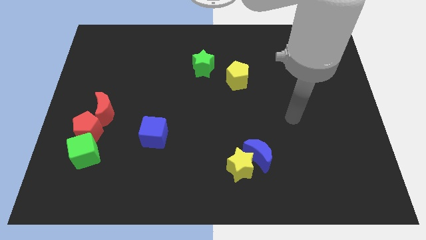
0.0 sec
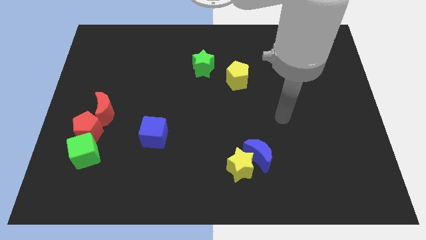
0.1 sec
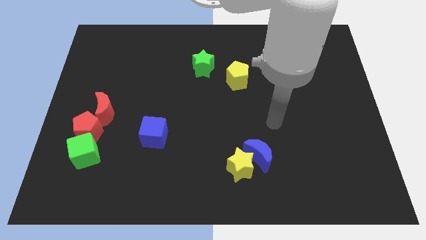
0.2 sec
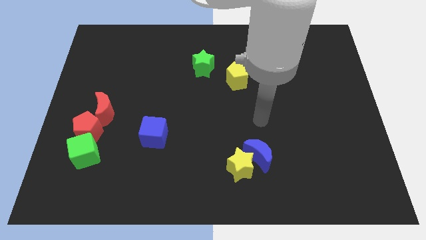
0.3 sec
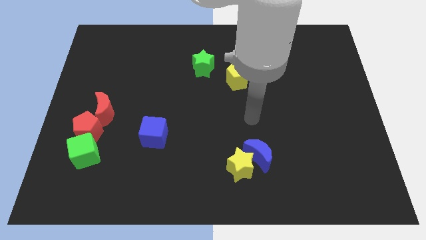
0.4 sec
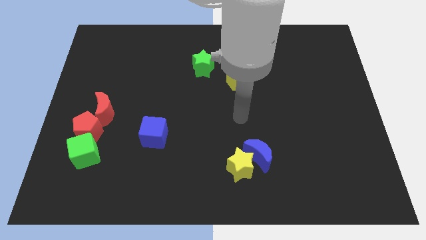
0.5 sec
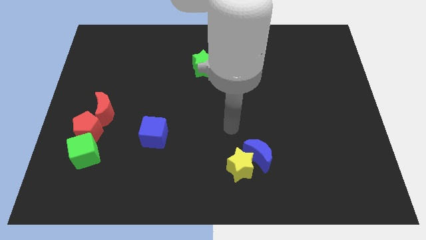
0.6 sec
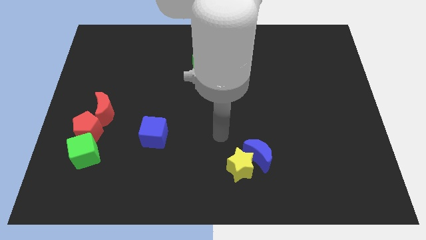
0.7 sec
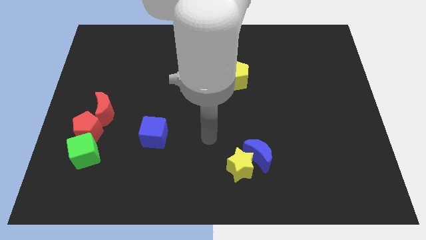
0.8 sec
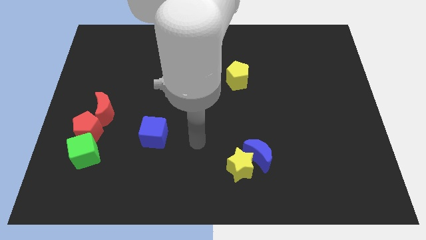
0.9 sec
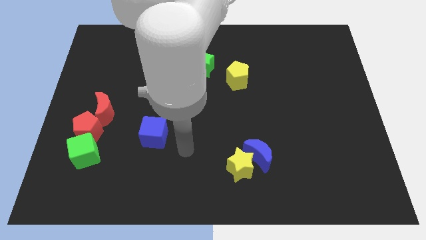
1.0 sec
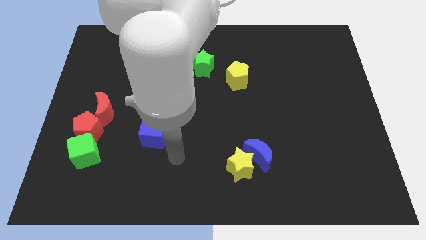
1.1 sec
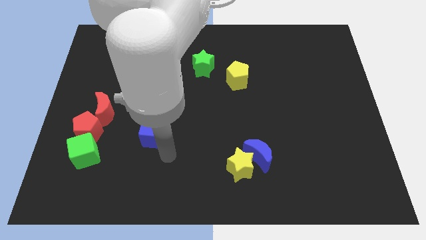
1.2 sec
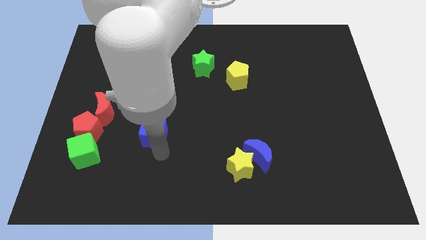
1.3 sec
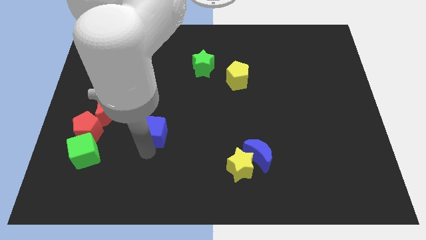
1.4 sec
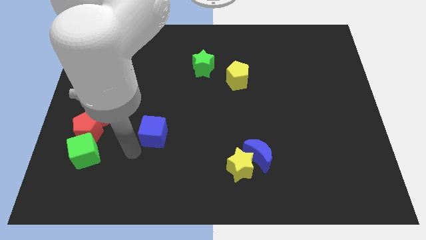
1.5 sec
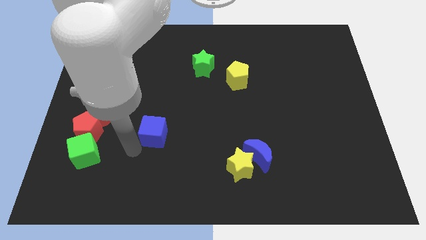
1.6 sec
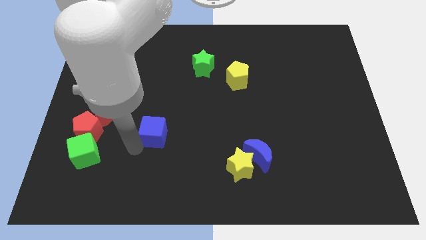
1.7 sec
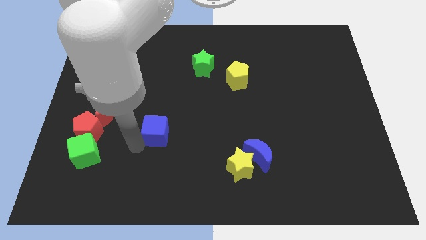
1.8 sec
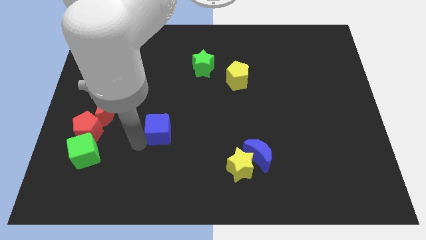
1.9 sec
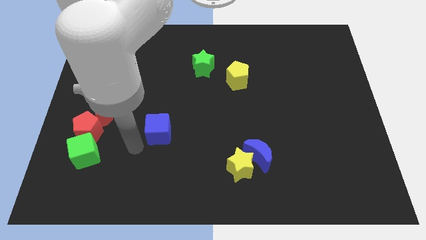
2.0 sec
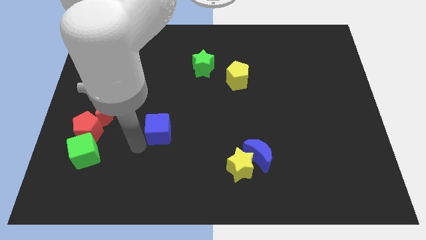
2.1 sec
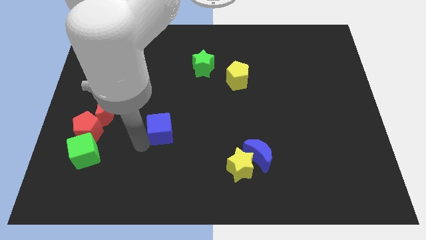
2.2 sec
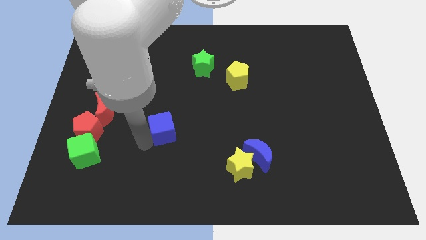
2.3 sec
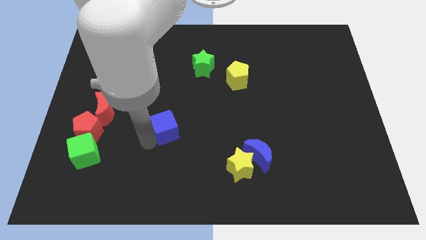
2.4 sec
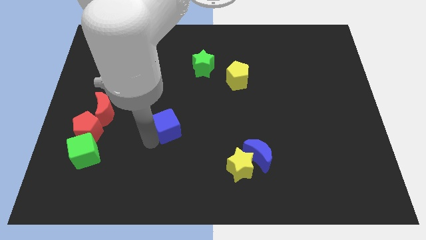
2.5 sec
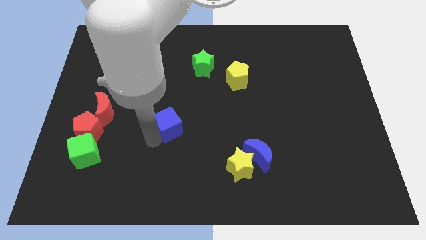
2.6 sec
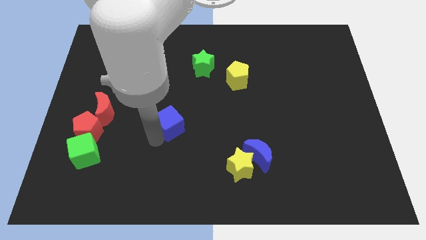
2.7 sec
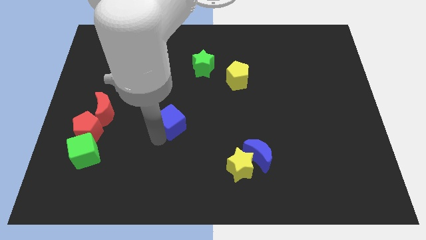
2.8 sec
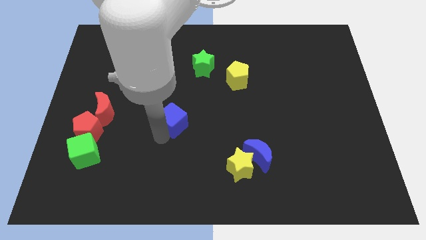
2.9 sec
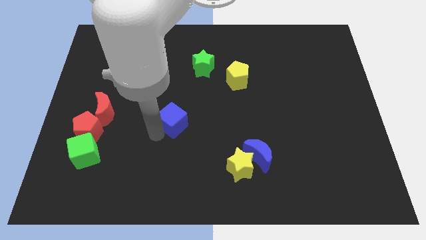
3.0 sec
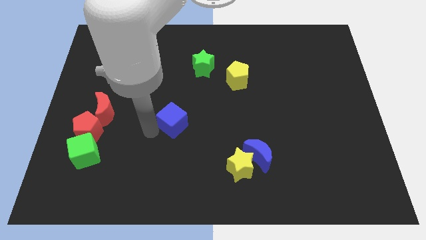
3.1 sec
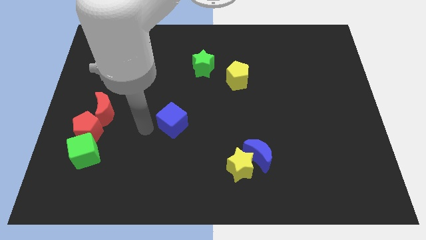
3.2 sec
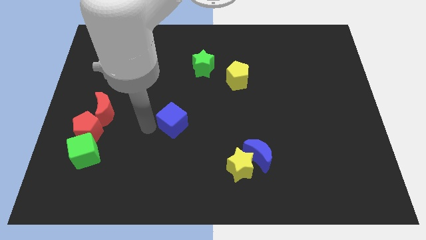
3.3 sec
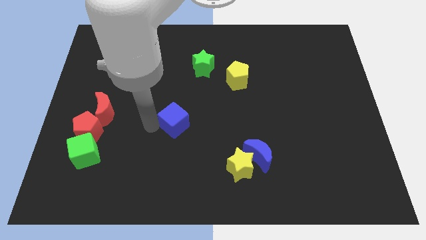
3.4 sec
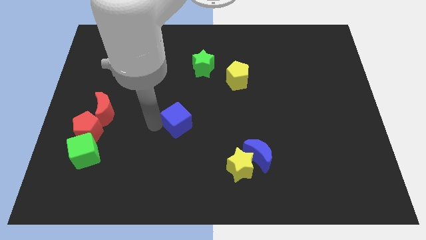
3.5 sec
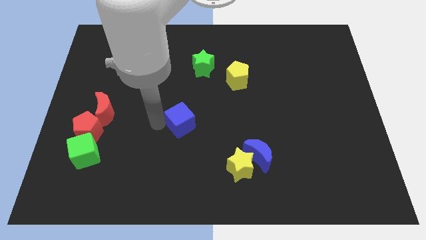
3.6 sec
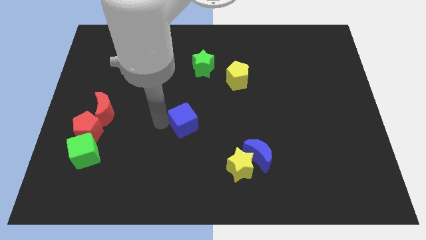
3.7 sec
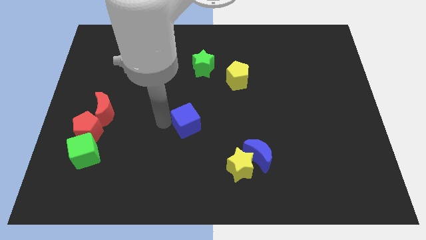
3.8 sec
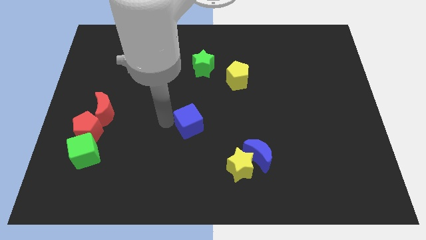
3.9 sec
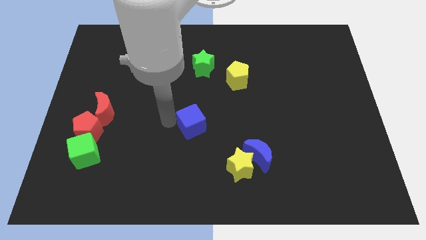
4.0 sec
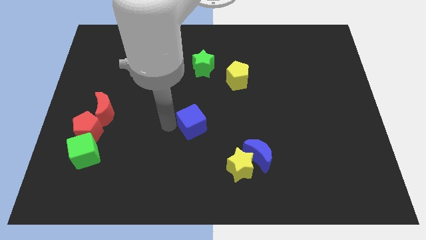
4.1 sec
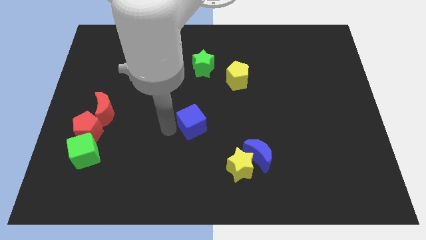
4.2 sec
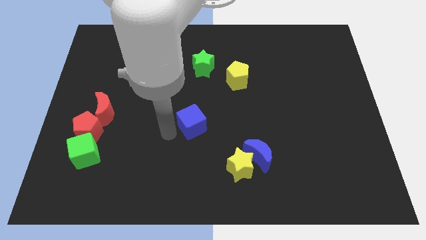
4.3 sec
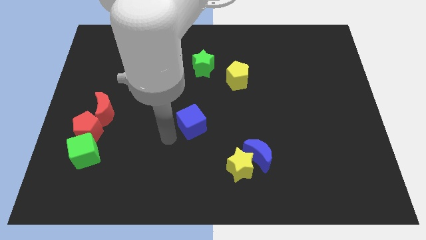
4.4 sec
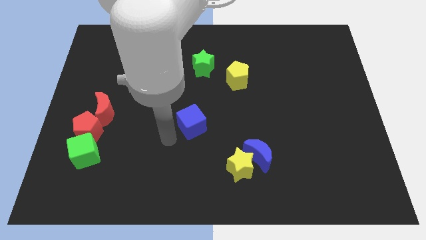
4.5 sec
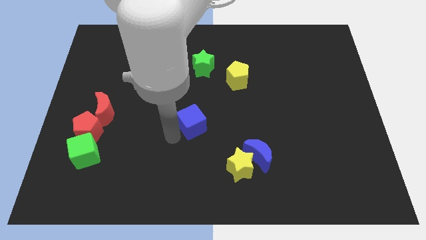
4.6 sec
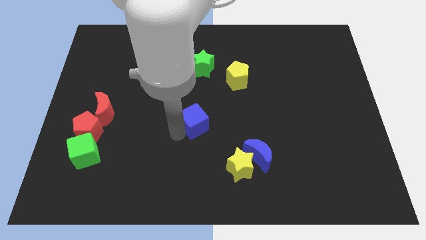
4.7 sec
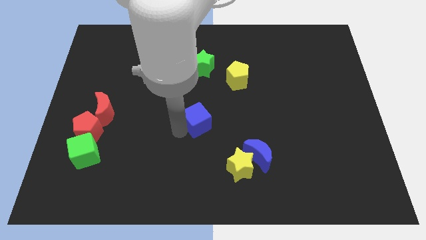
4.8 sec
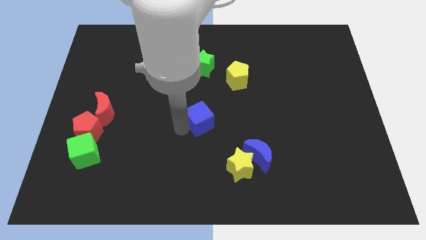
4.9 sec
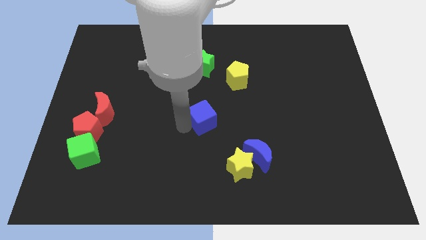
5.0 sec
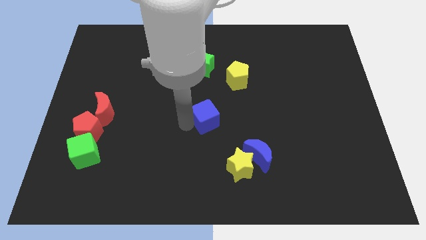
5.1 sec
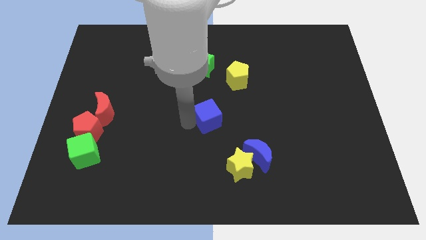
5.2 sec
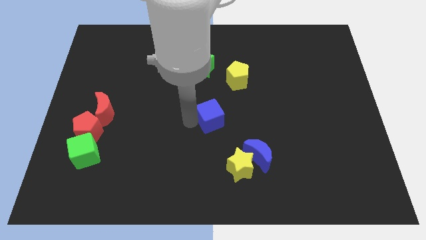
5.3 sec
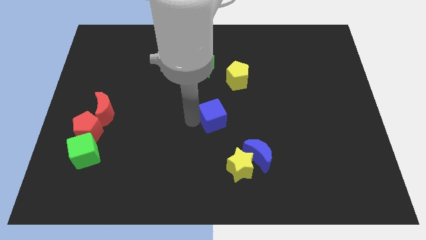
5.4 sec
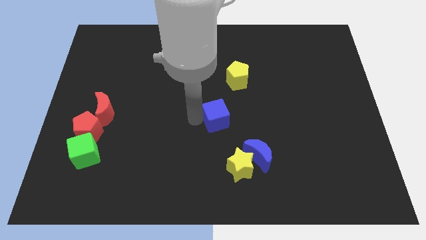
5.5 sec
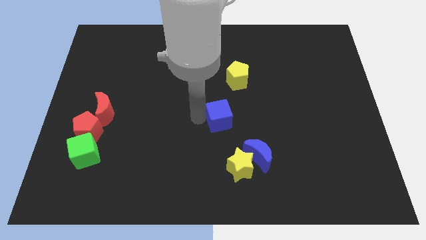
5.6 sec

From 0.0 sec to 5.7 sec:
push the blue cube below the yellow pentagon

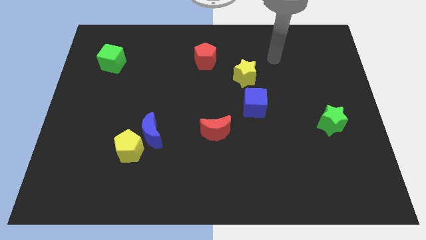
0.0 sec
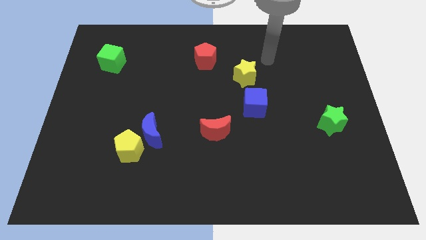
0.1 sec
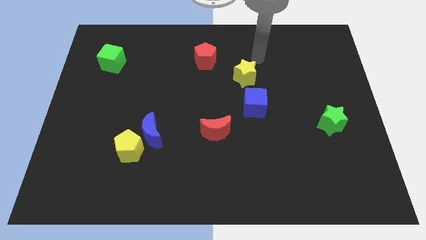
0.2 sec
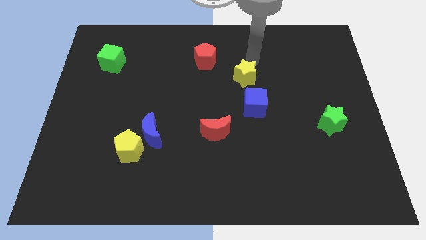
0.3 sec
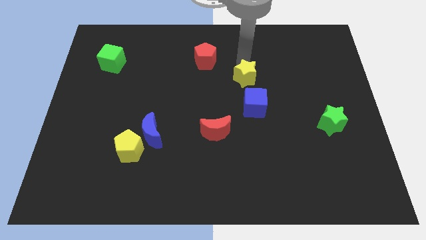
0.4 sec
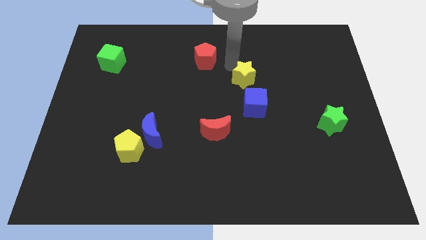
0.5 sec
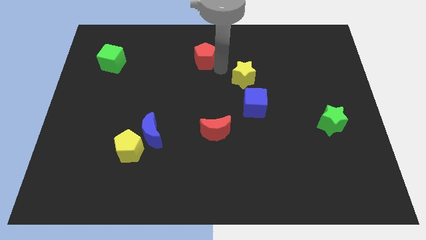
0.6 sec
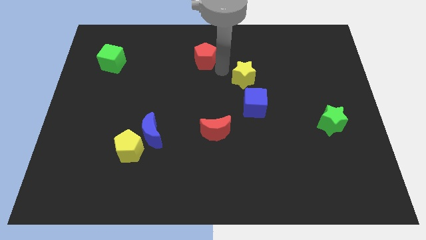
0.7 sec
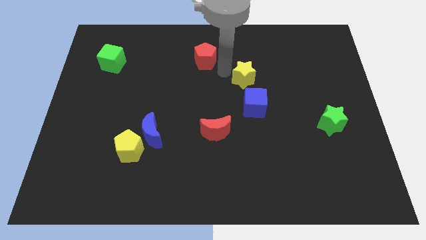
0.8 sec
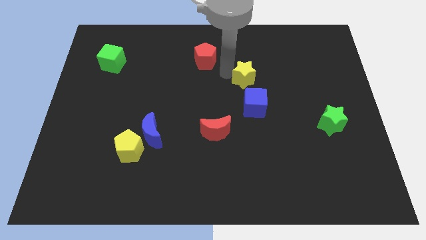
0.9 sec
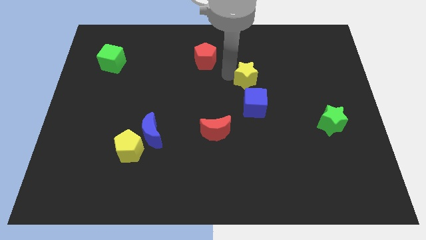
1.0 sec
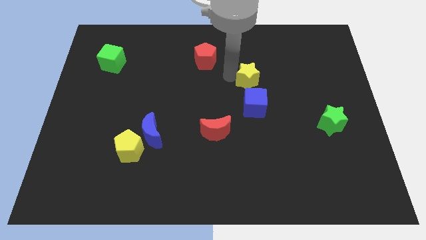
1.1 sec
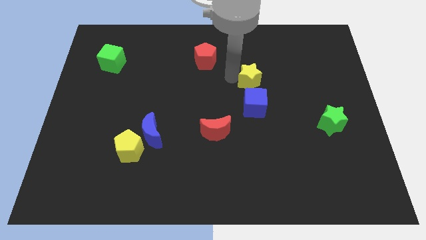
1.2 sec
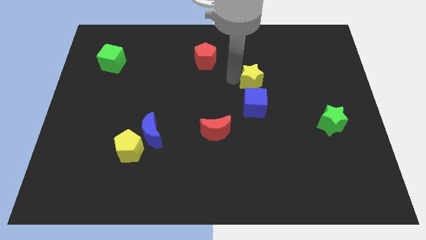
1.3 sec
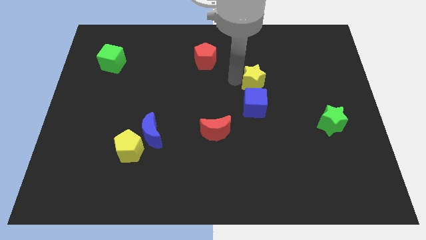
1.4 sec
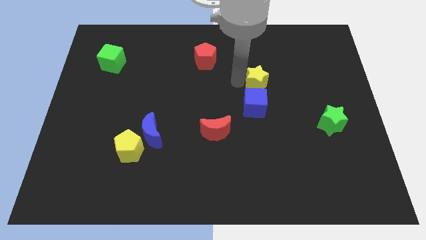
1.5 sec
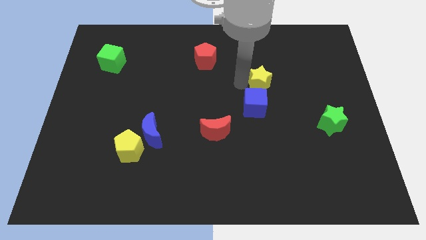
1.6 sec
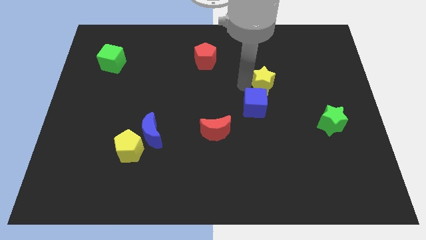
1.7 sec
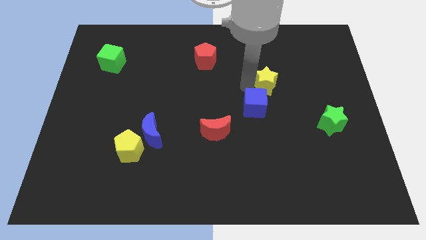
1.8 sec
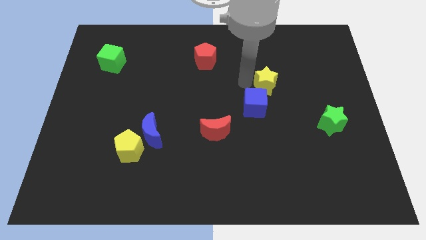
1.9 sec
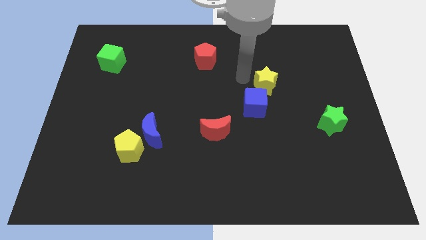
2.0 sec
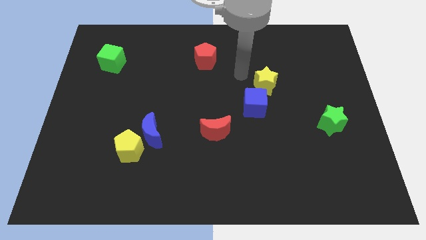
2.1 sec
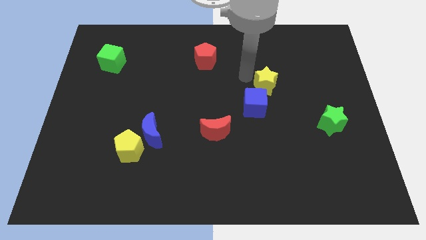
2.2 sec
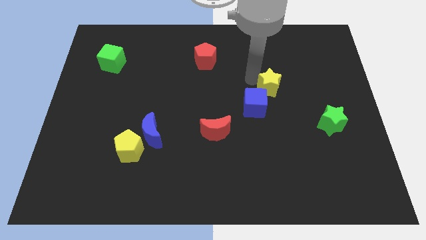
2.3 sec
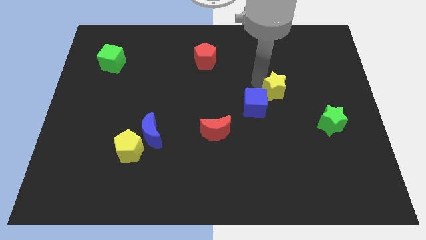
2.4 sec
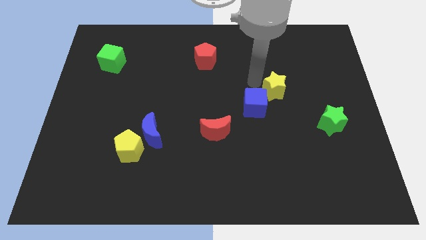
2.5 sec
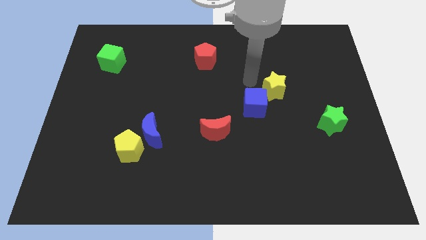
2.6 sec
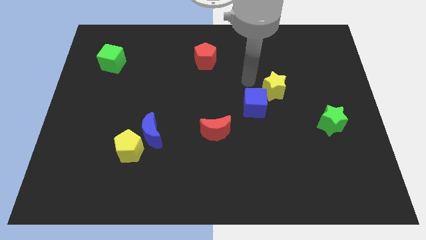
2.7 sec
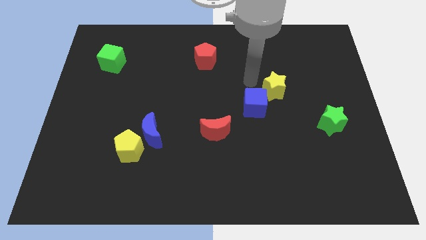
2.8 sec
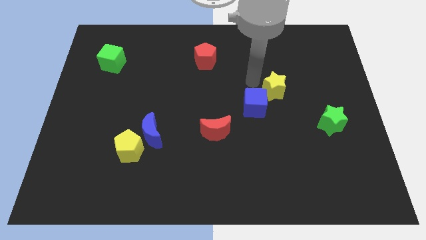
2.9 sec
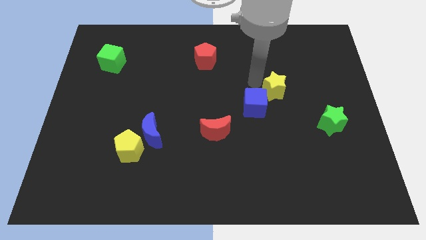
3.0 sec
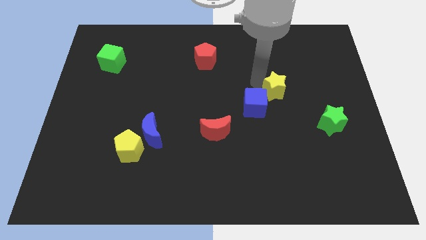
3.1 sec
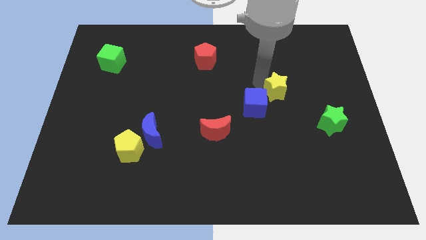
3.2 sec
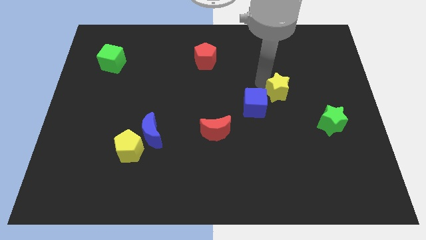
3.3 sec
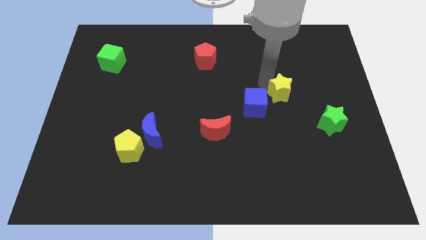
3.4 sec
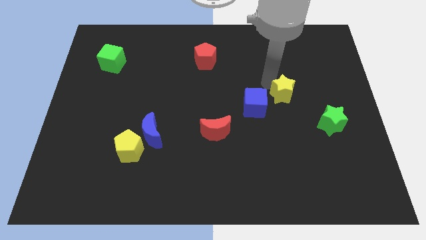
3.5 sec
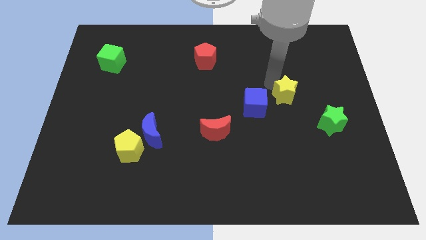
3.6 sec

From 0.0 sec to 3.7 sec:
push the yellow star to the top left side of the green star
